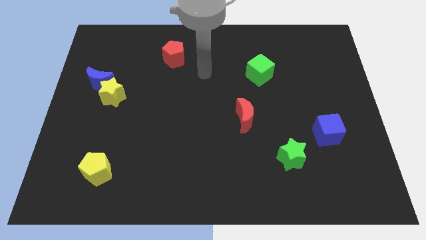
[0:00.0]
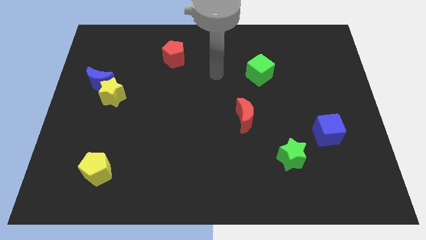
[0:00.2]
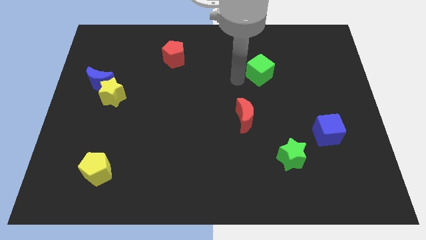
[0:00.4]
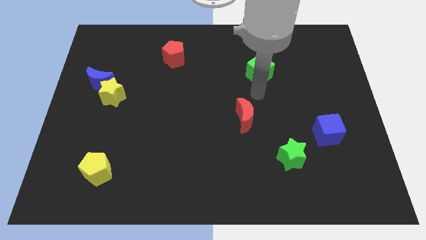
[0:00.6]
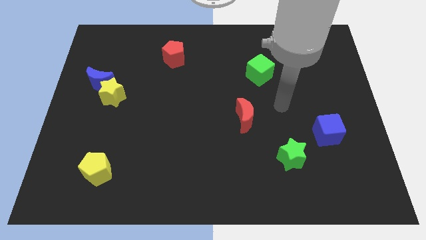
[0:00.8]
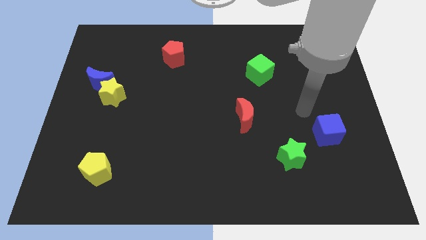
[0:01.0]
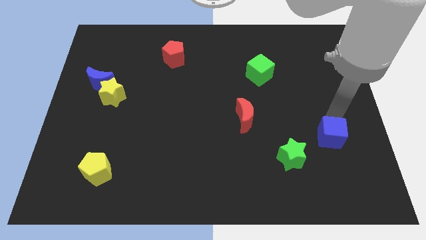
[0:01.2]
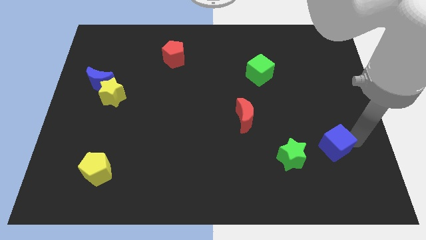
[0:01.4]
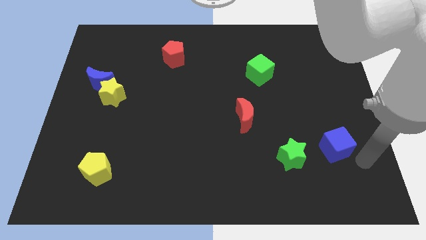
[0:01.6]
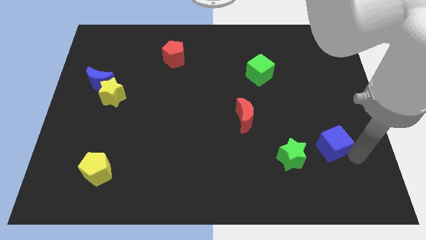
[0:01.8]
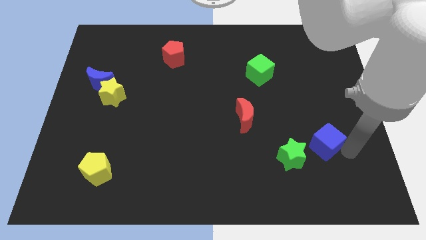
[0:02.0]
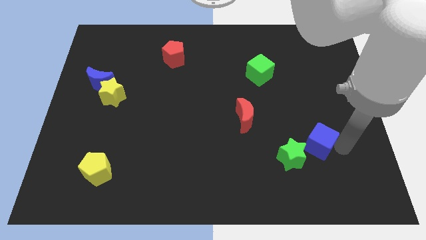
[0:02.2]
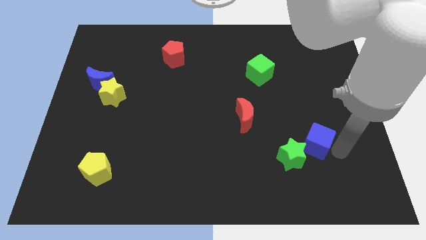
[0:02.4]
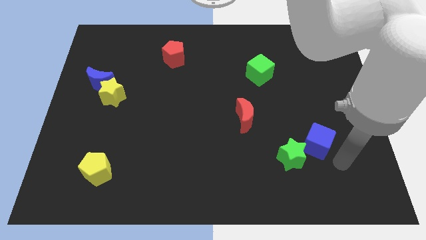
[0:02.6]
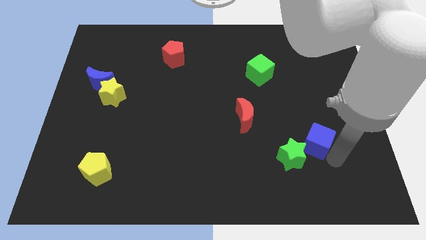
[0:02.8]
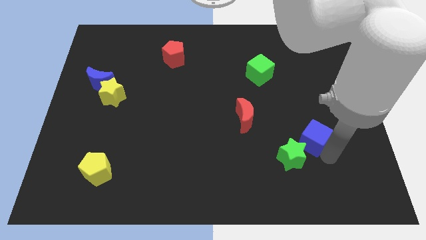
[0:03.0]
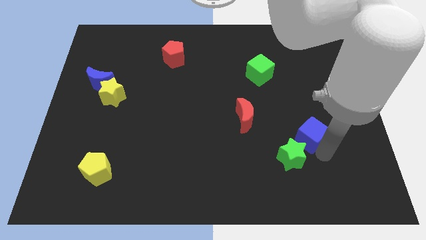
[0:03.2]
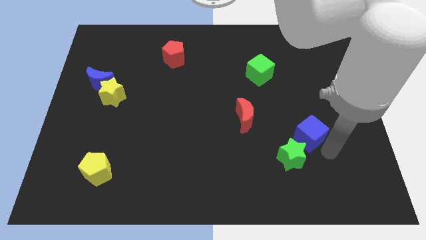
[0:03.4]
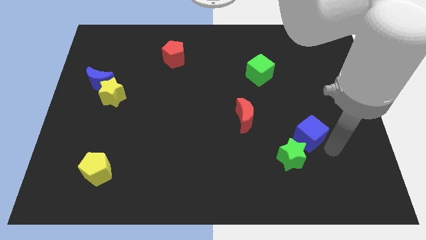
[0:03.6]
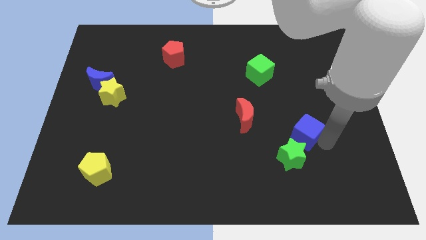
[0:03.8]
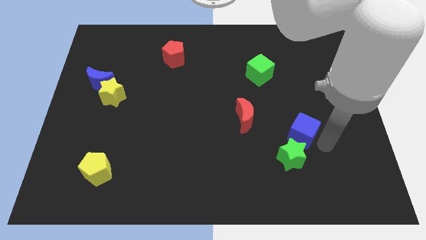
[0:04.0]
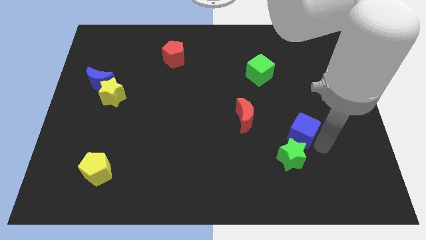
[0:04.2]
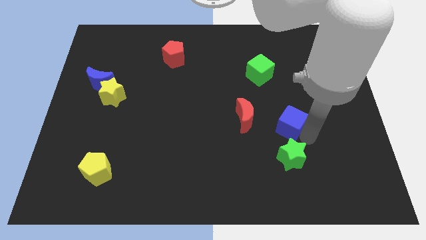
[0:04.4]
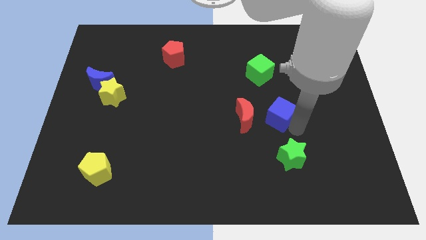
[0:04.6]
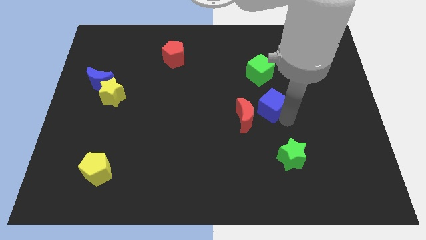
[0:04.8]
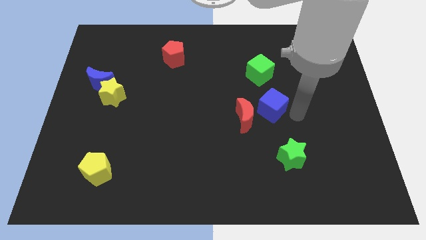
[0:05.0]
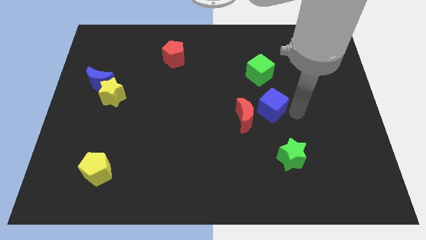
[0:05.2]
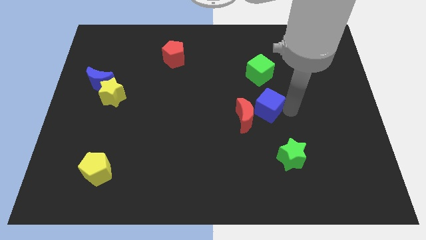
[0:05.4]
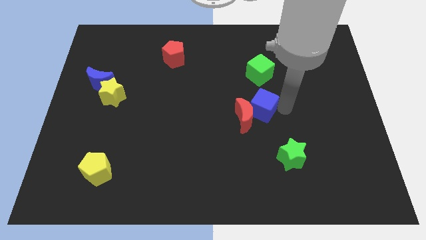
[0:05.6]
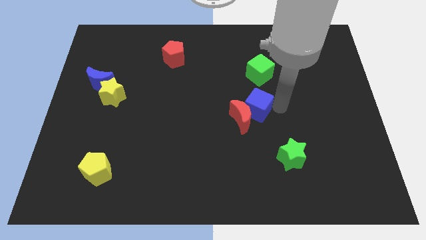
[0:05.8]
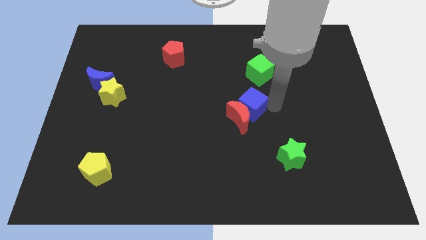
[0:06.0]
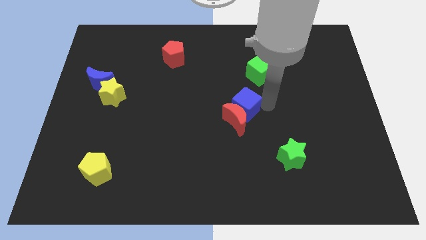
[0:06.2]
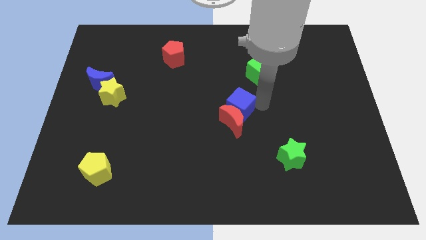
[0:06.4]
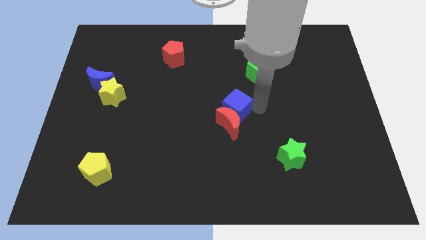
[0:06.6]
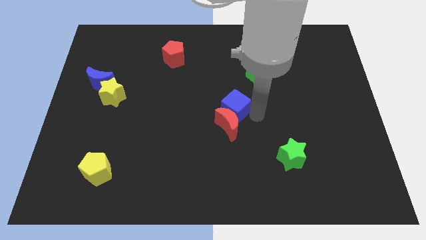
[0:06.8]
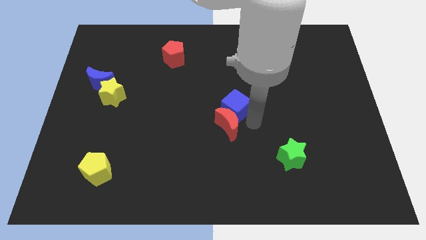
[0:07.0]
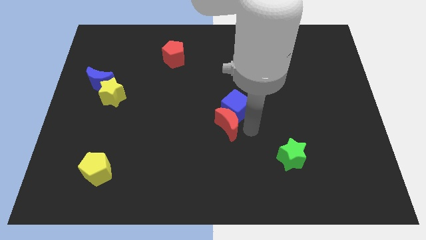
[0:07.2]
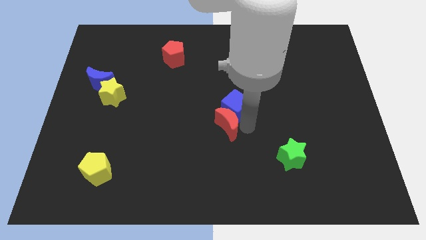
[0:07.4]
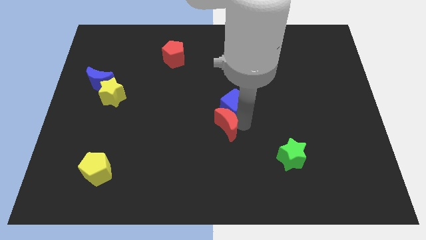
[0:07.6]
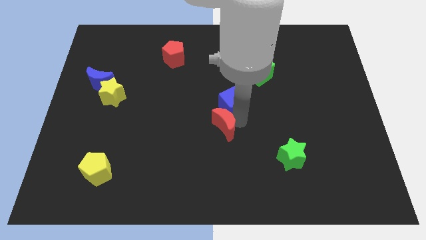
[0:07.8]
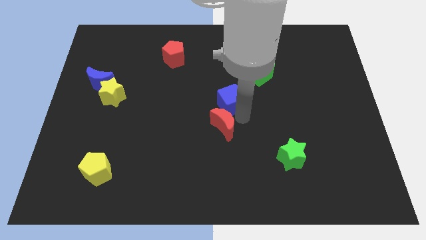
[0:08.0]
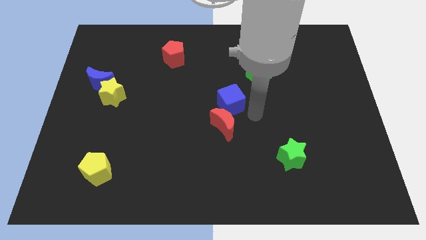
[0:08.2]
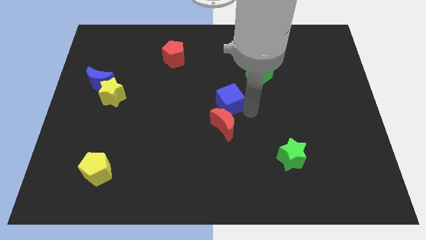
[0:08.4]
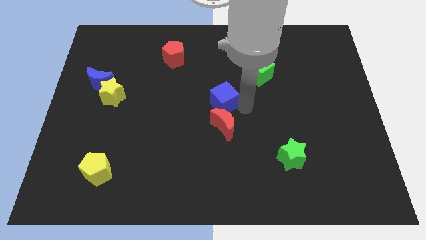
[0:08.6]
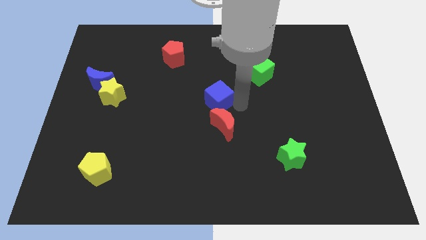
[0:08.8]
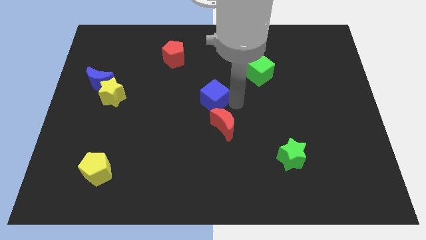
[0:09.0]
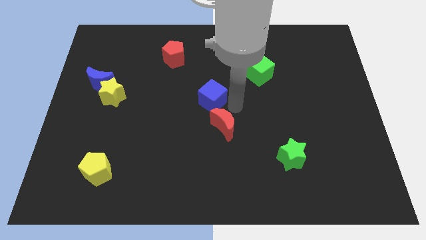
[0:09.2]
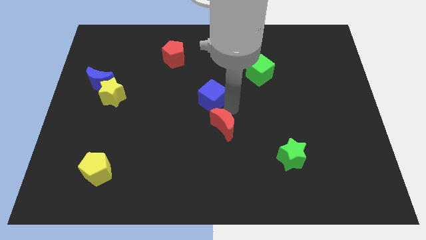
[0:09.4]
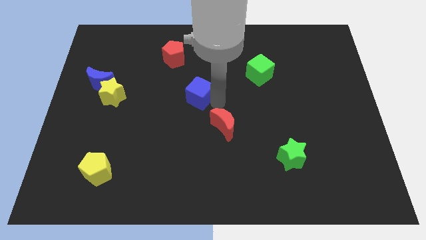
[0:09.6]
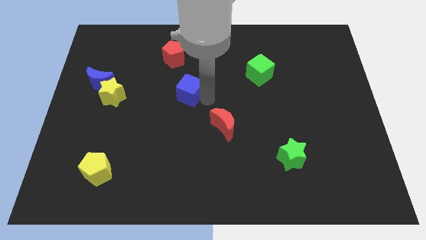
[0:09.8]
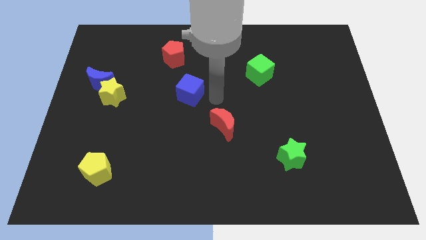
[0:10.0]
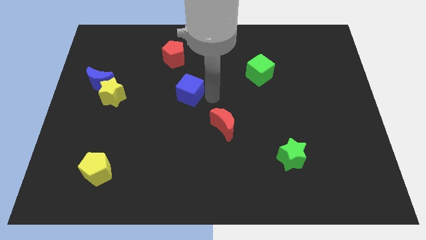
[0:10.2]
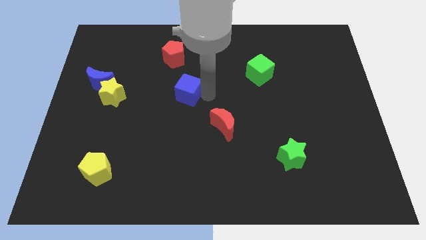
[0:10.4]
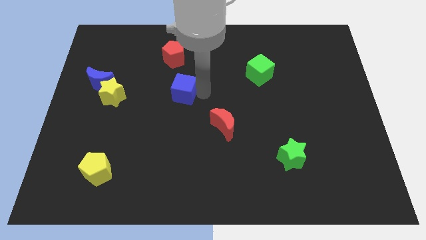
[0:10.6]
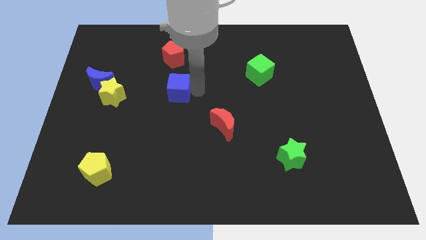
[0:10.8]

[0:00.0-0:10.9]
put the blue cube just right of the yellow star

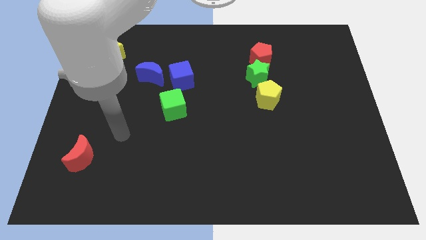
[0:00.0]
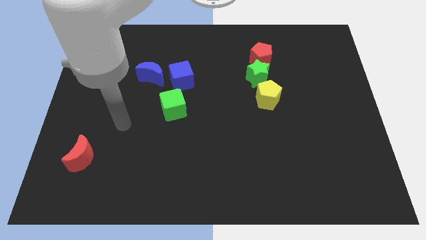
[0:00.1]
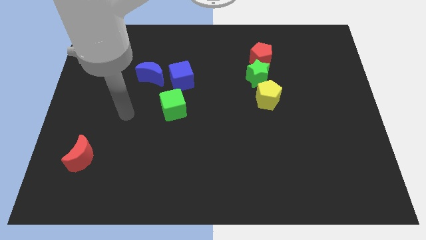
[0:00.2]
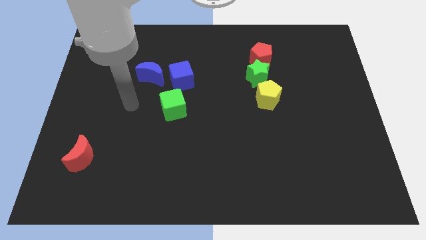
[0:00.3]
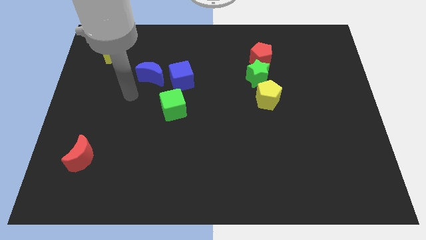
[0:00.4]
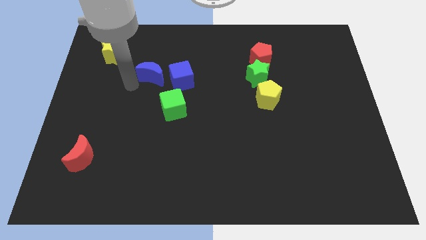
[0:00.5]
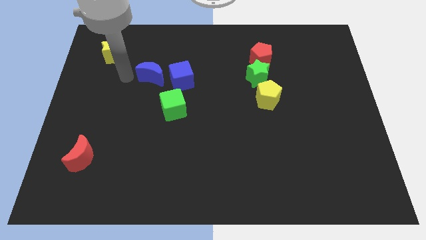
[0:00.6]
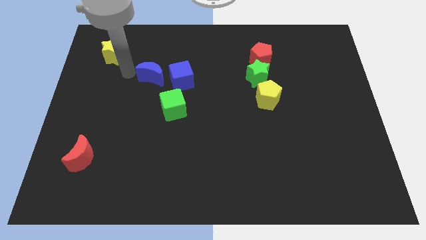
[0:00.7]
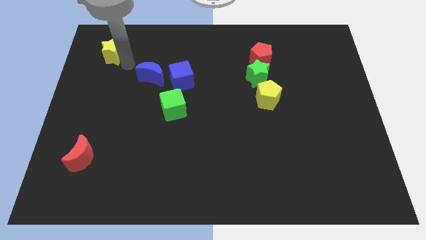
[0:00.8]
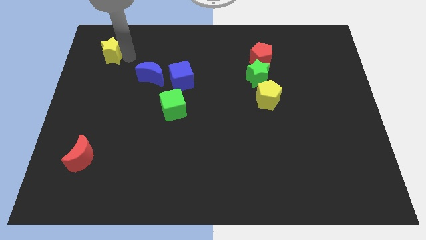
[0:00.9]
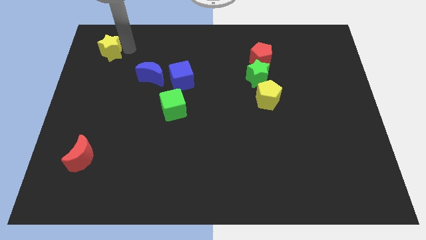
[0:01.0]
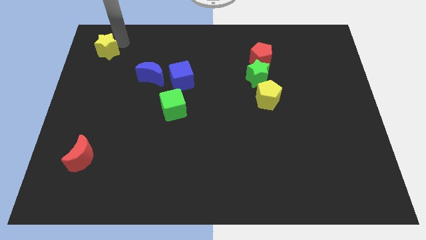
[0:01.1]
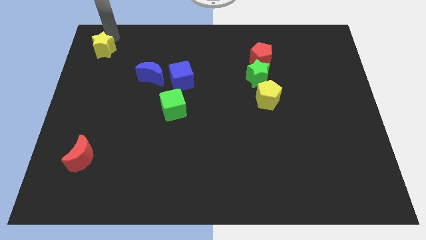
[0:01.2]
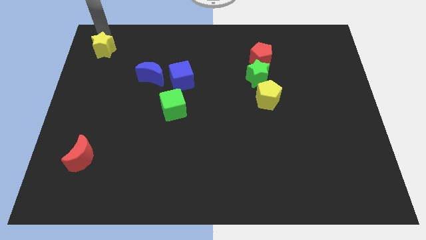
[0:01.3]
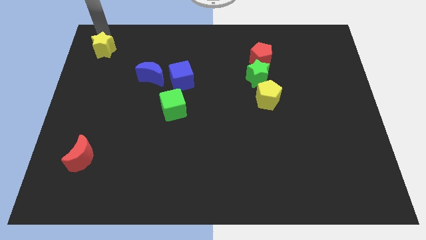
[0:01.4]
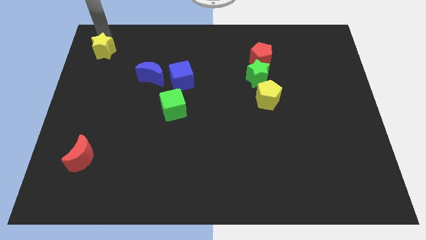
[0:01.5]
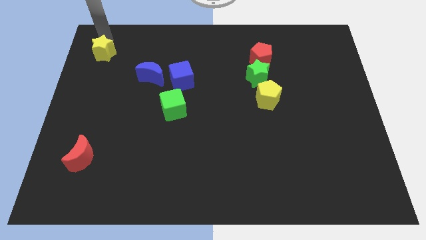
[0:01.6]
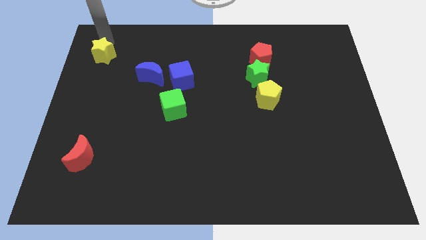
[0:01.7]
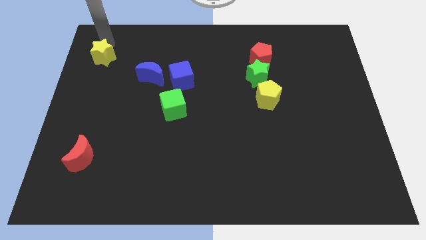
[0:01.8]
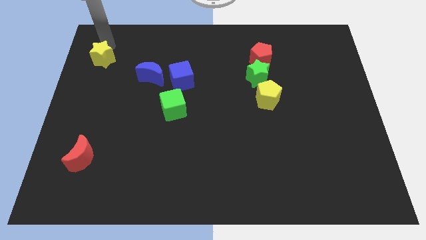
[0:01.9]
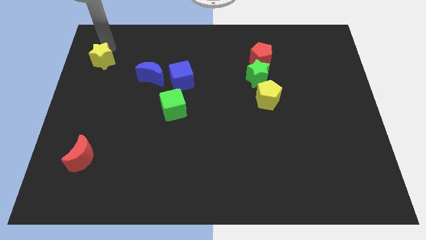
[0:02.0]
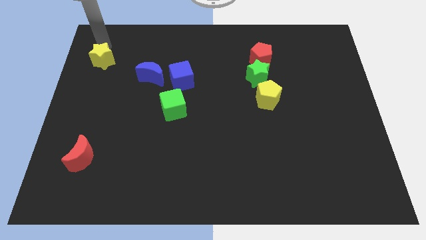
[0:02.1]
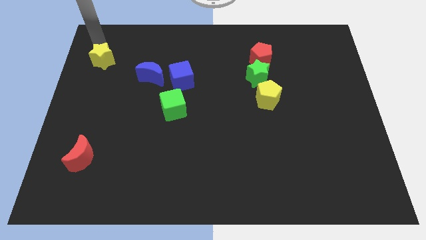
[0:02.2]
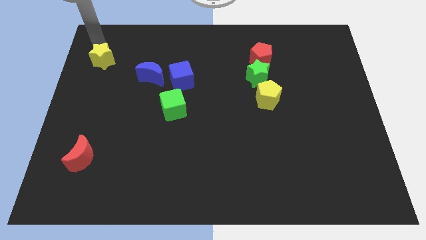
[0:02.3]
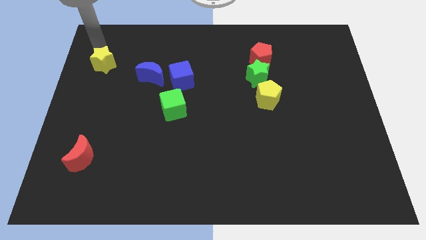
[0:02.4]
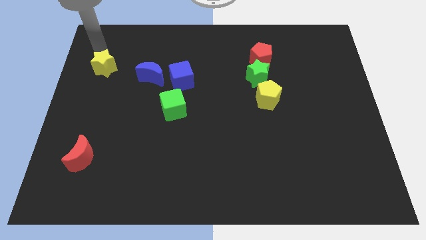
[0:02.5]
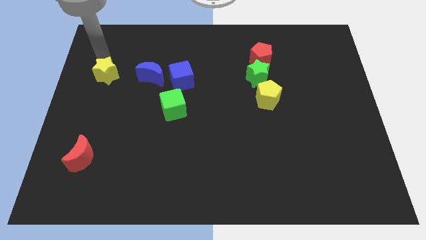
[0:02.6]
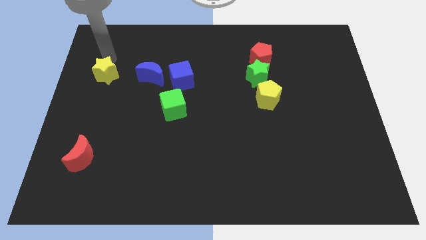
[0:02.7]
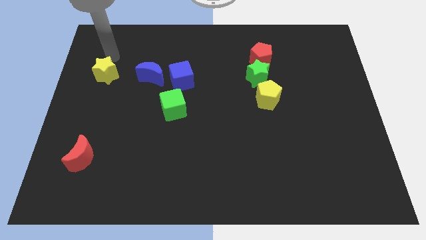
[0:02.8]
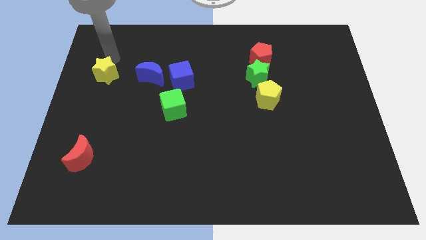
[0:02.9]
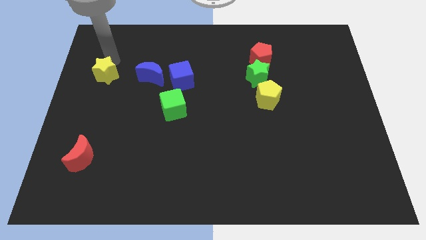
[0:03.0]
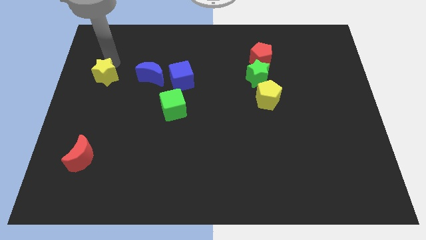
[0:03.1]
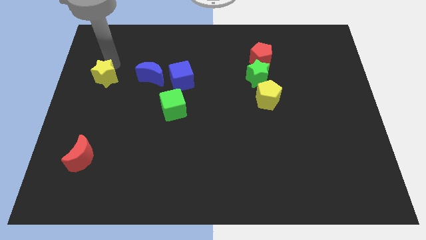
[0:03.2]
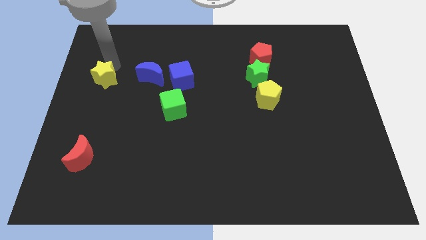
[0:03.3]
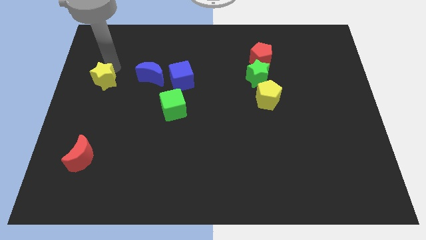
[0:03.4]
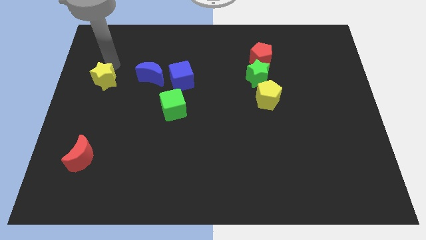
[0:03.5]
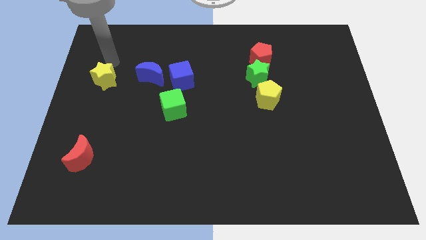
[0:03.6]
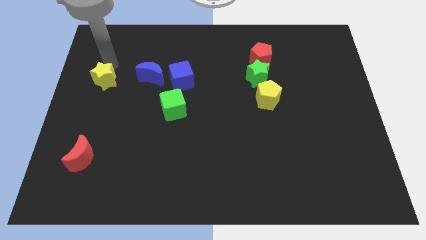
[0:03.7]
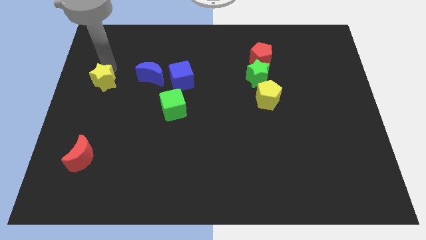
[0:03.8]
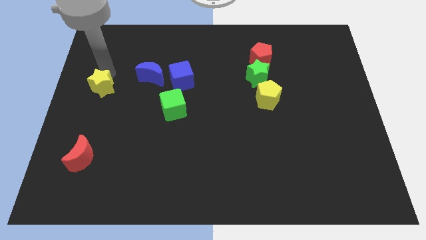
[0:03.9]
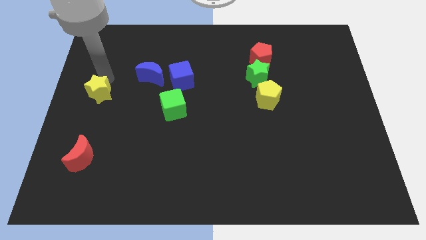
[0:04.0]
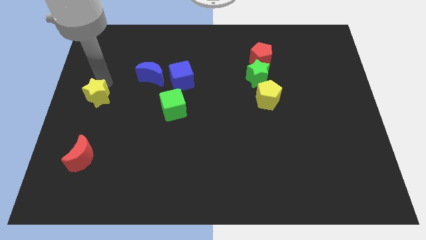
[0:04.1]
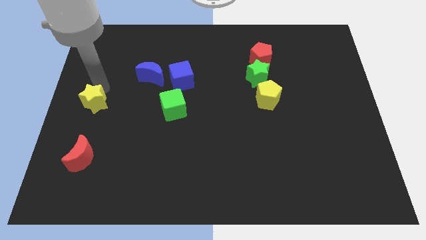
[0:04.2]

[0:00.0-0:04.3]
push the yellow star to the top side of the red moon
